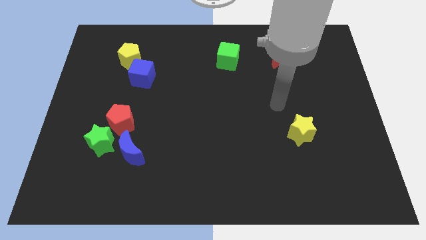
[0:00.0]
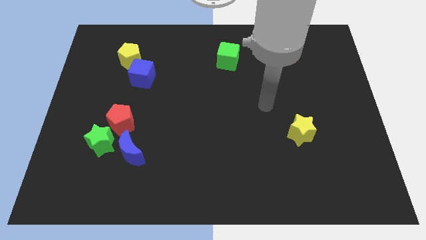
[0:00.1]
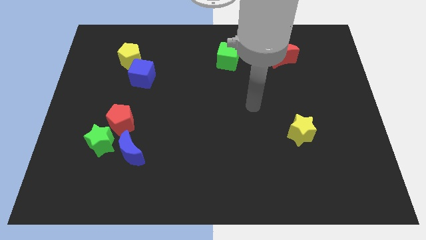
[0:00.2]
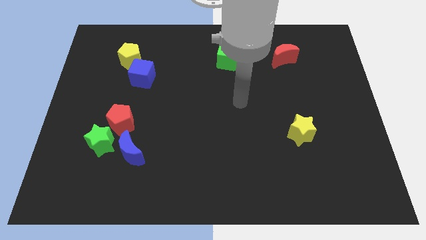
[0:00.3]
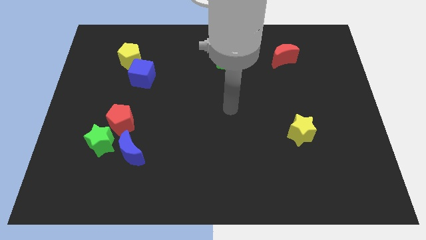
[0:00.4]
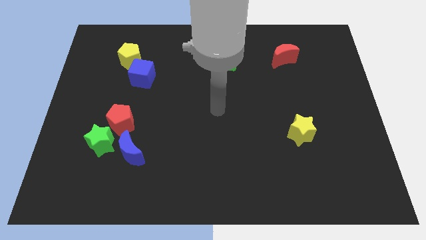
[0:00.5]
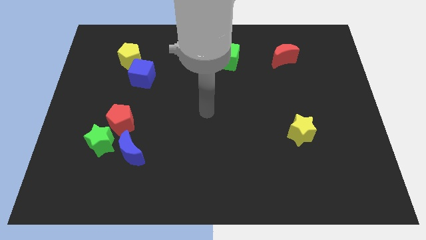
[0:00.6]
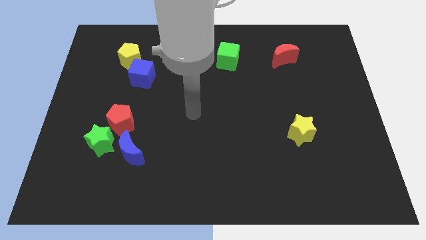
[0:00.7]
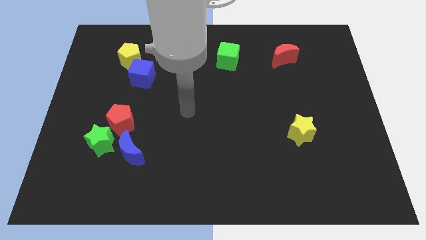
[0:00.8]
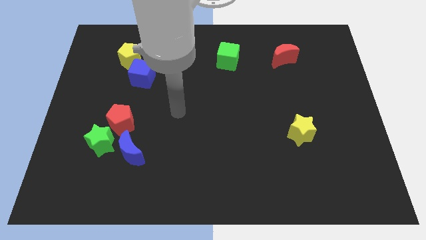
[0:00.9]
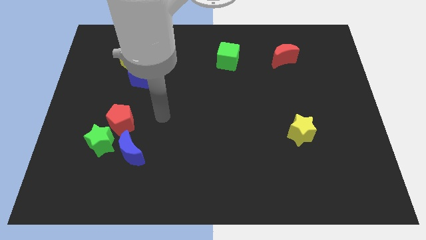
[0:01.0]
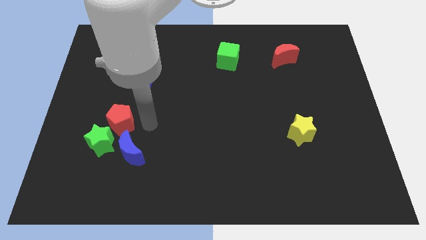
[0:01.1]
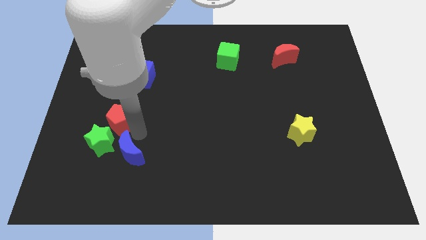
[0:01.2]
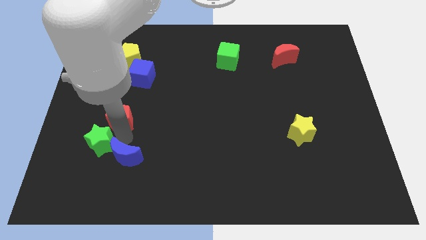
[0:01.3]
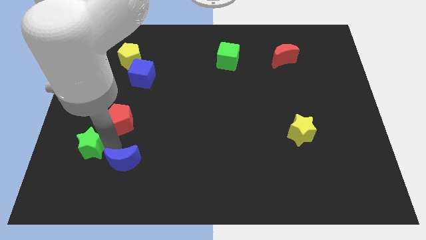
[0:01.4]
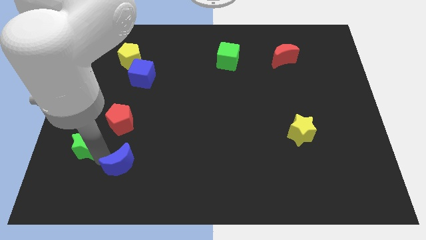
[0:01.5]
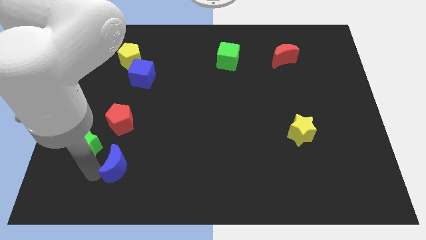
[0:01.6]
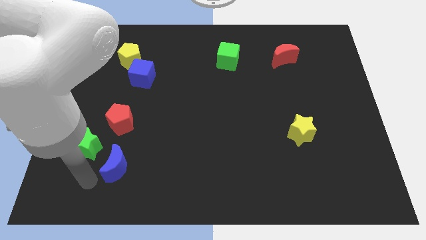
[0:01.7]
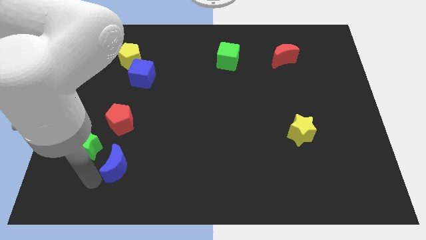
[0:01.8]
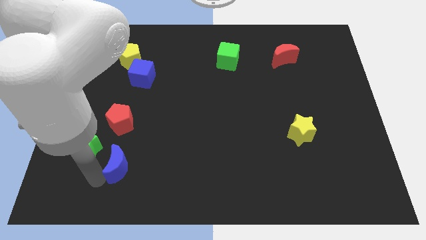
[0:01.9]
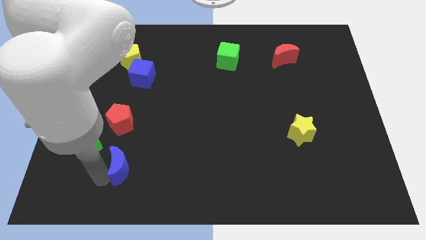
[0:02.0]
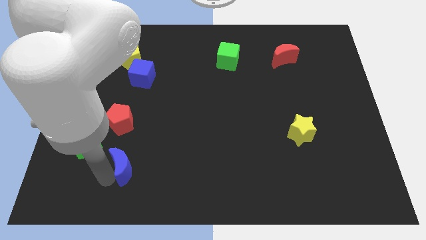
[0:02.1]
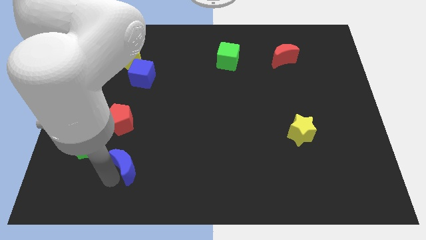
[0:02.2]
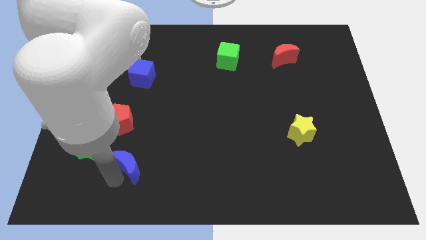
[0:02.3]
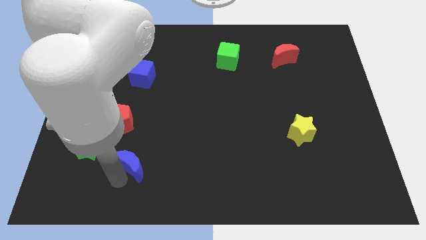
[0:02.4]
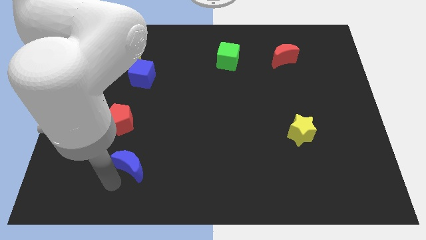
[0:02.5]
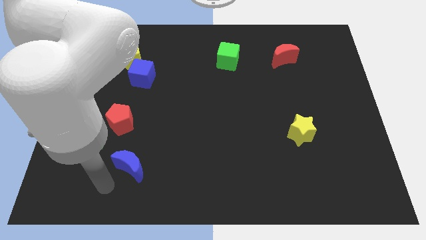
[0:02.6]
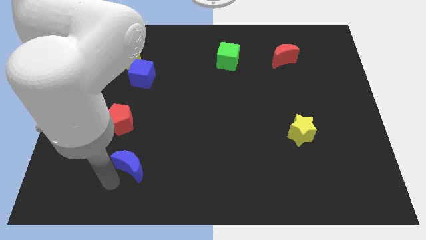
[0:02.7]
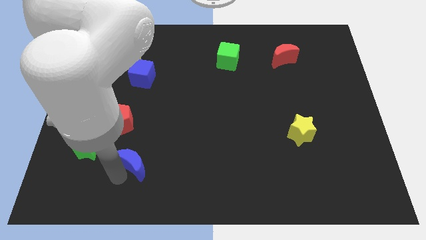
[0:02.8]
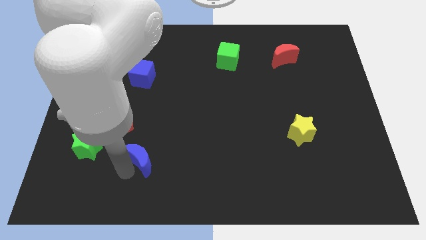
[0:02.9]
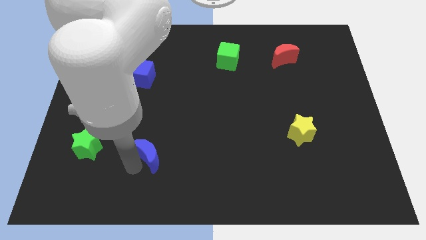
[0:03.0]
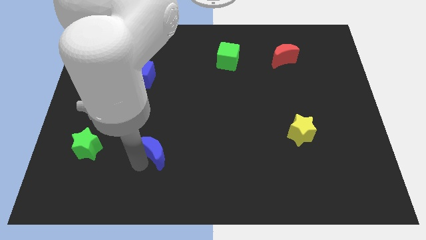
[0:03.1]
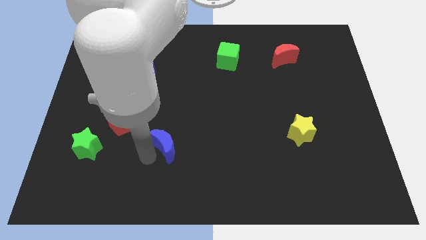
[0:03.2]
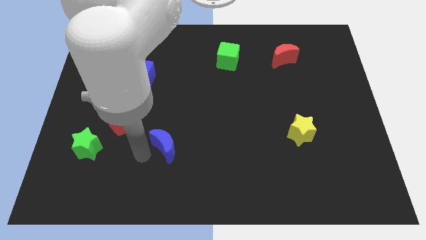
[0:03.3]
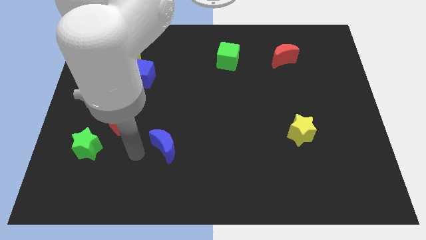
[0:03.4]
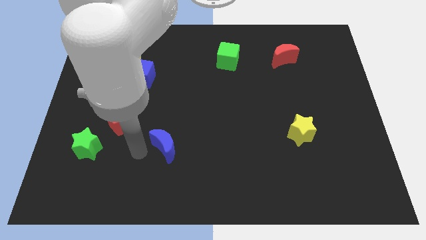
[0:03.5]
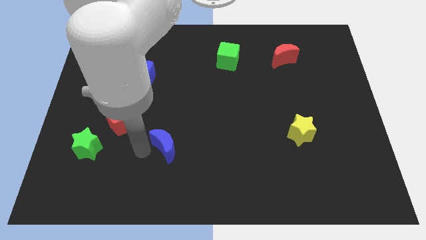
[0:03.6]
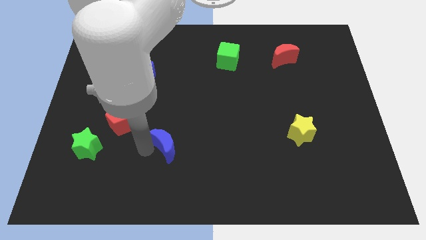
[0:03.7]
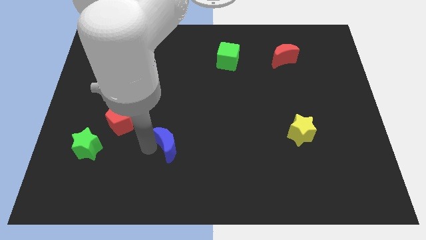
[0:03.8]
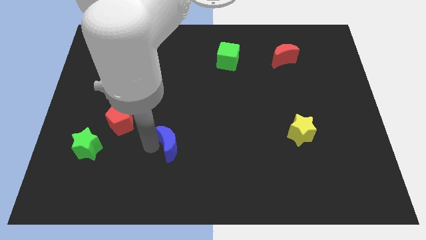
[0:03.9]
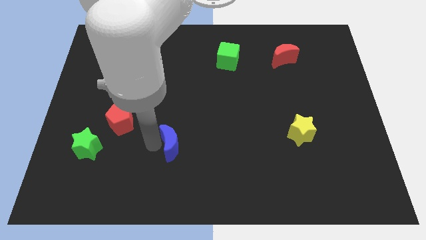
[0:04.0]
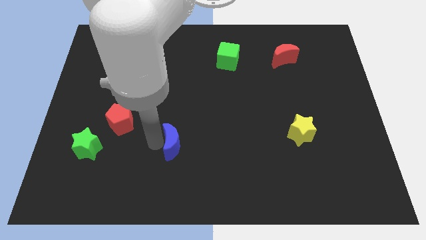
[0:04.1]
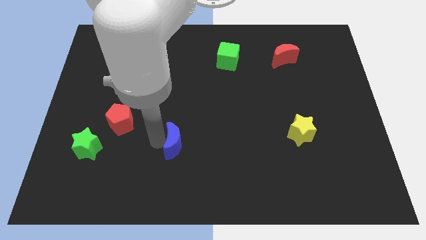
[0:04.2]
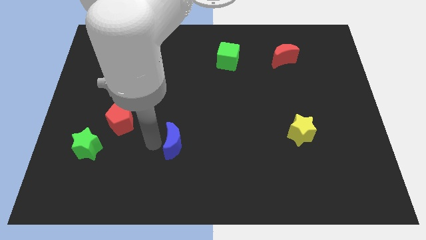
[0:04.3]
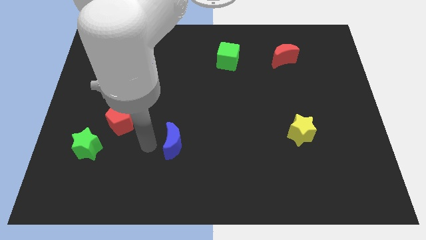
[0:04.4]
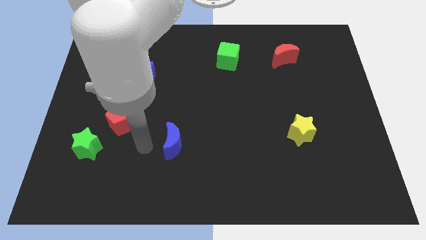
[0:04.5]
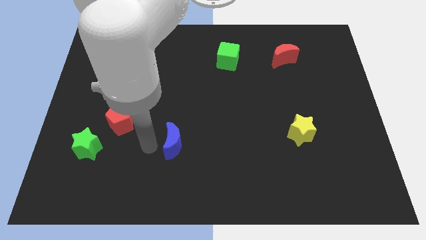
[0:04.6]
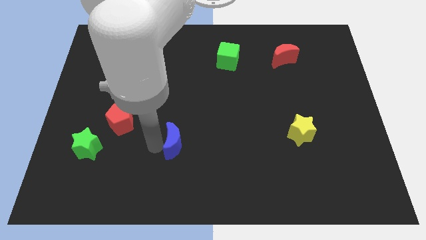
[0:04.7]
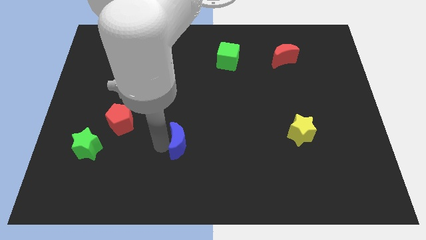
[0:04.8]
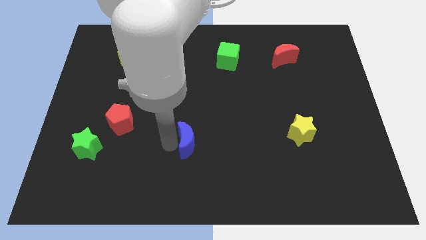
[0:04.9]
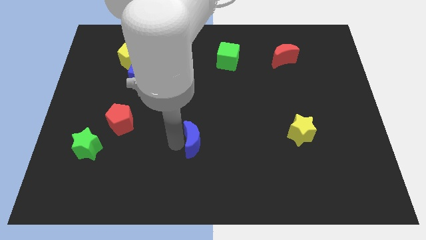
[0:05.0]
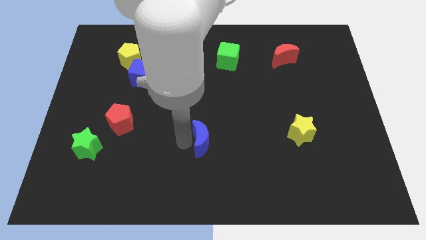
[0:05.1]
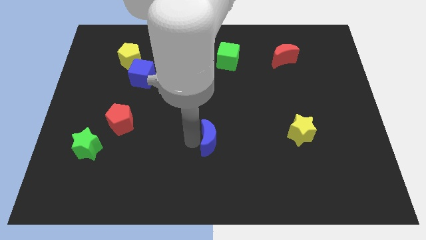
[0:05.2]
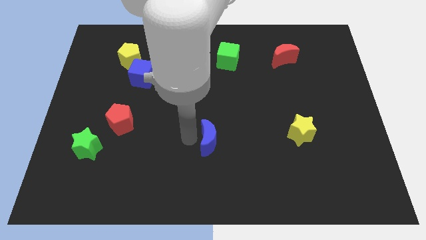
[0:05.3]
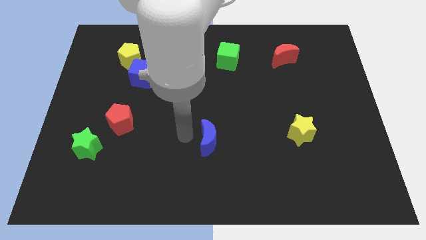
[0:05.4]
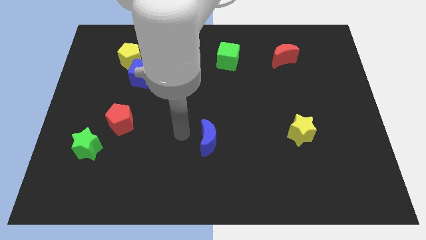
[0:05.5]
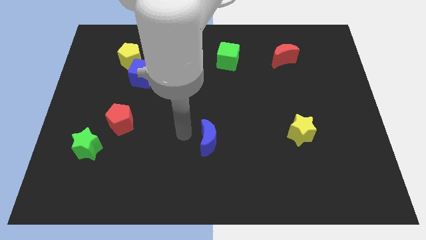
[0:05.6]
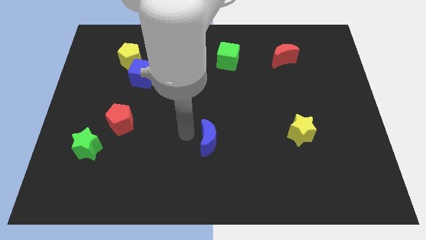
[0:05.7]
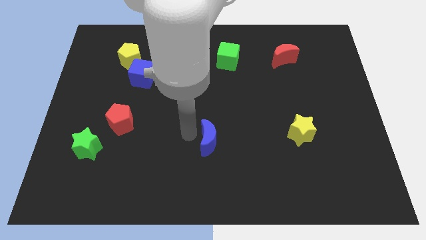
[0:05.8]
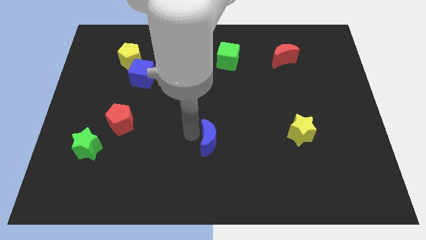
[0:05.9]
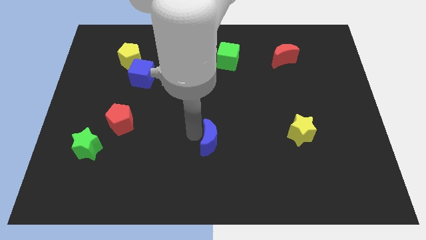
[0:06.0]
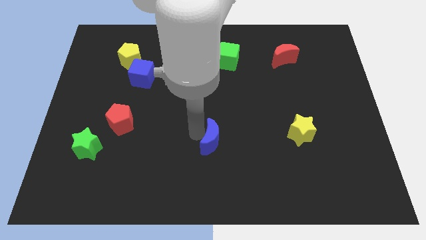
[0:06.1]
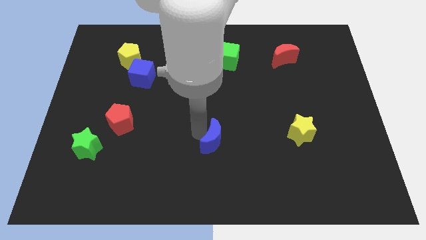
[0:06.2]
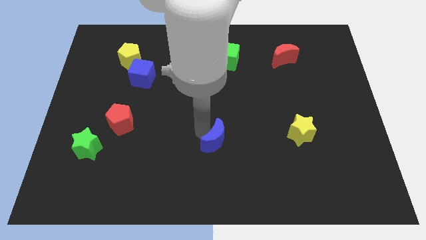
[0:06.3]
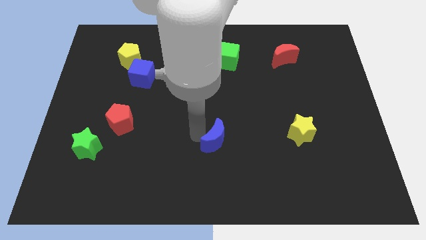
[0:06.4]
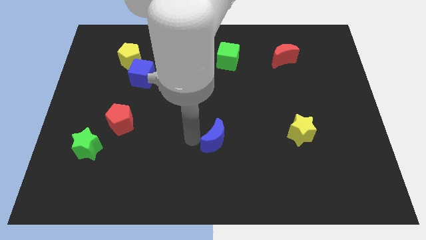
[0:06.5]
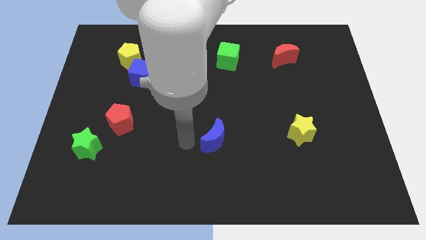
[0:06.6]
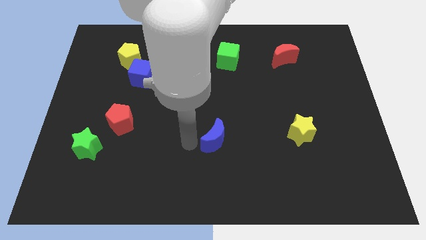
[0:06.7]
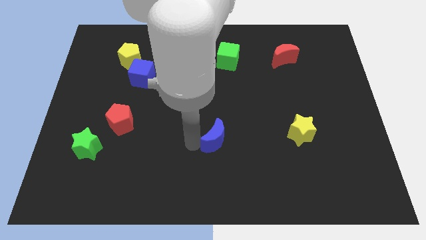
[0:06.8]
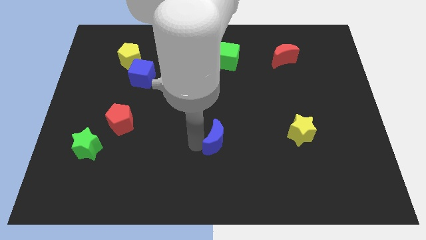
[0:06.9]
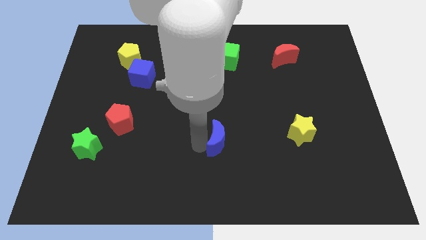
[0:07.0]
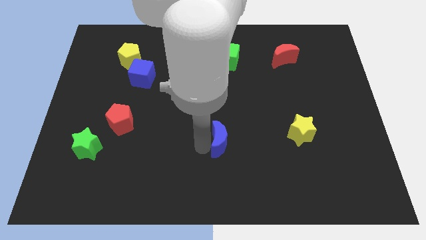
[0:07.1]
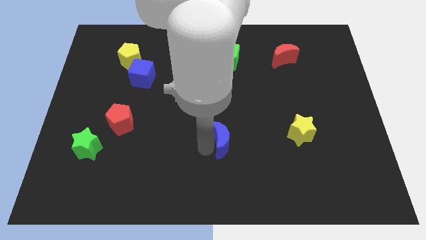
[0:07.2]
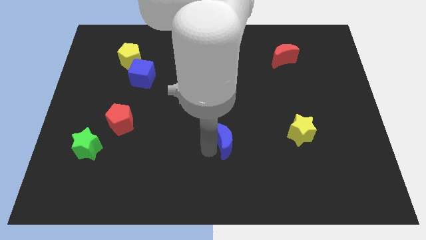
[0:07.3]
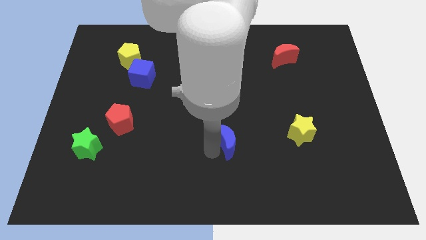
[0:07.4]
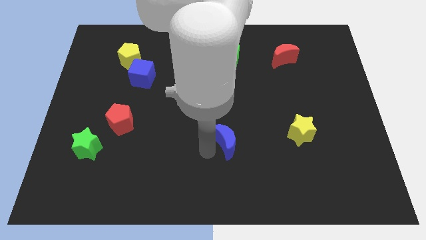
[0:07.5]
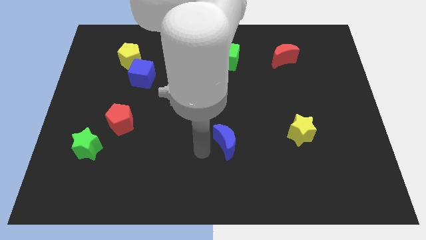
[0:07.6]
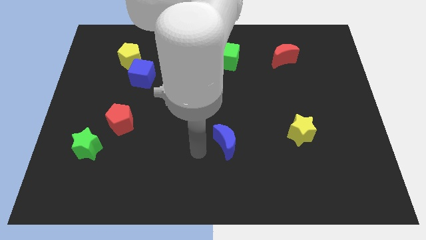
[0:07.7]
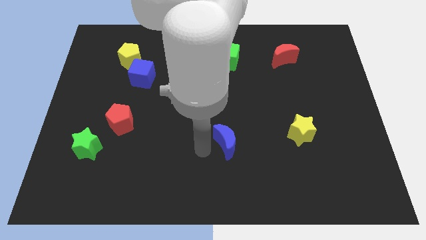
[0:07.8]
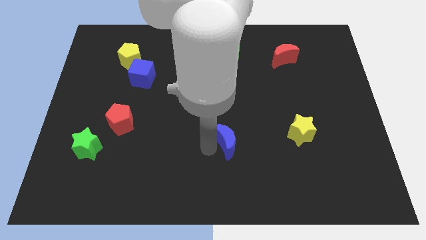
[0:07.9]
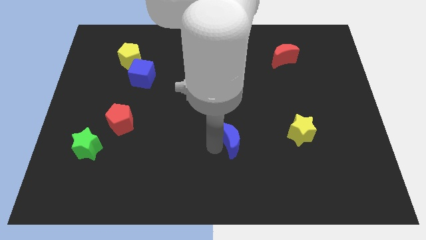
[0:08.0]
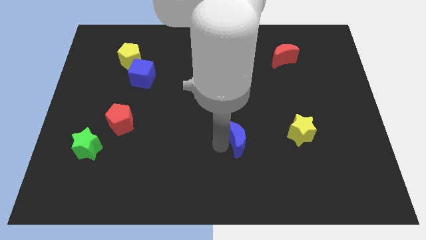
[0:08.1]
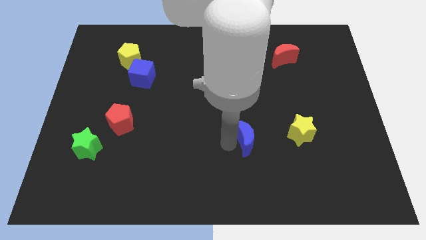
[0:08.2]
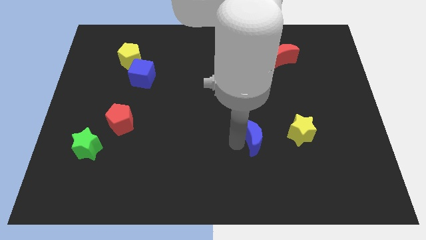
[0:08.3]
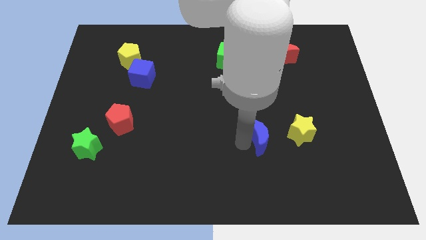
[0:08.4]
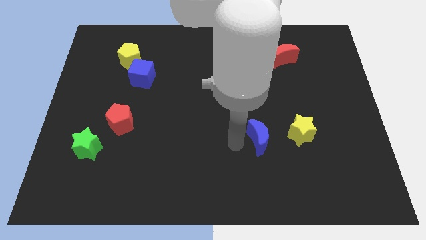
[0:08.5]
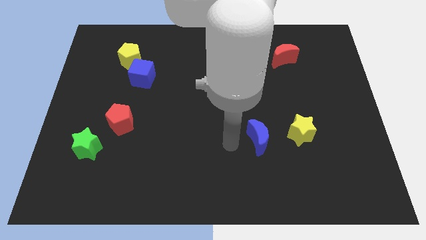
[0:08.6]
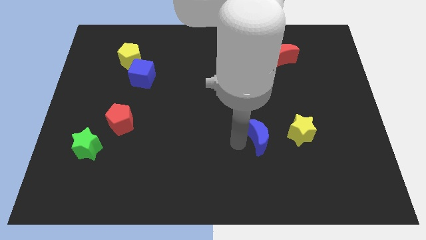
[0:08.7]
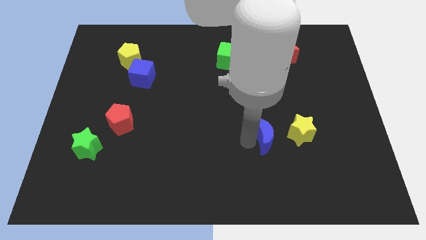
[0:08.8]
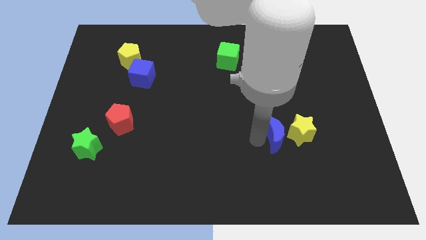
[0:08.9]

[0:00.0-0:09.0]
push the blue moon towards the yellow star
